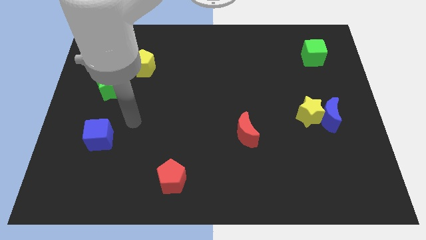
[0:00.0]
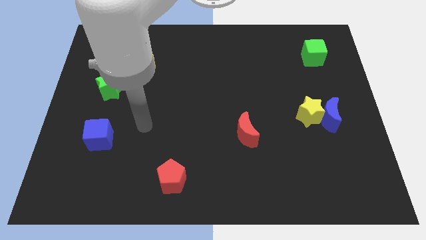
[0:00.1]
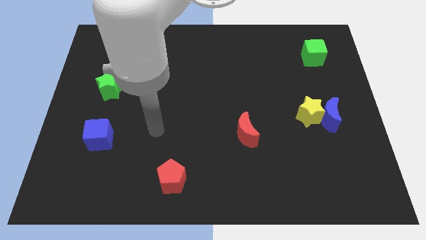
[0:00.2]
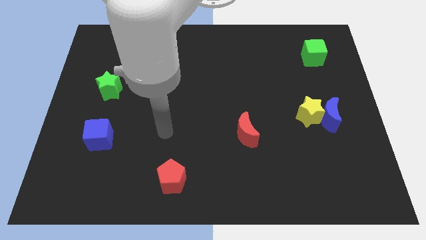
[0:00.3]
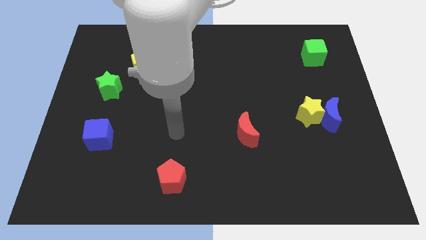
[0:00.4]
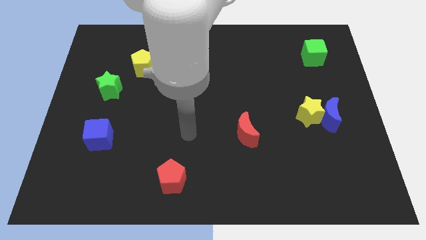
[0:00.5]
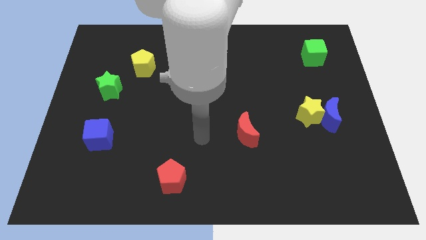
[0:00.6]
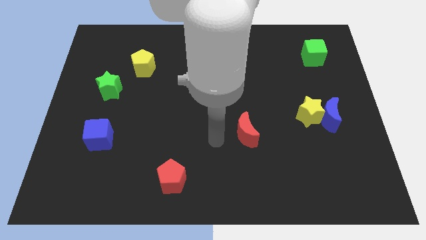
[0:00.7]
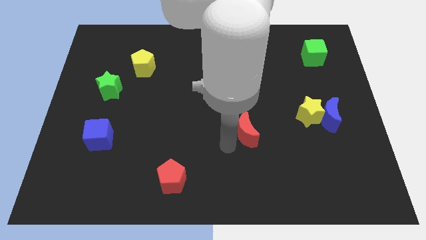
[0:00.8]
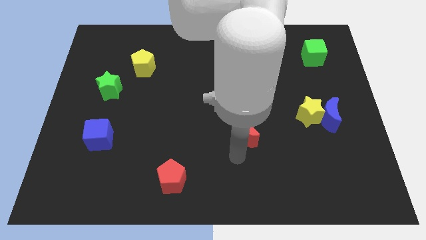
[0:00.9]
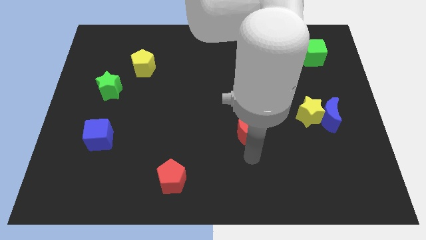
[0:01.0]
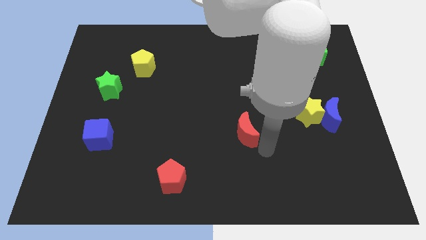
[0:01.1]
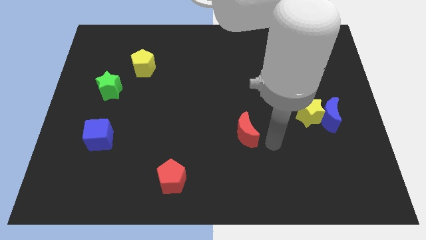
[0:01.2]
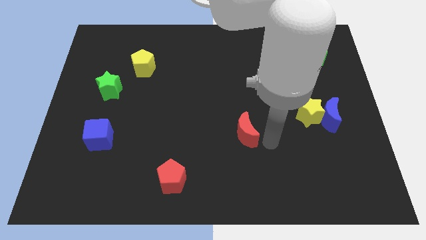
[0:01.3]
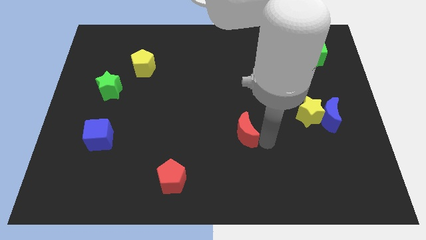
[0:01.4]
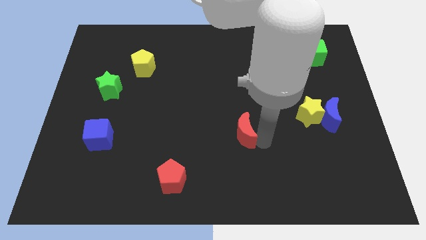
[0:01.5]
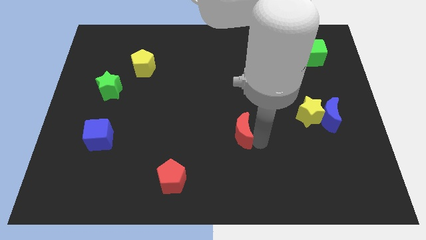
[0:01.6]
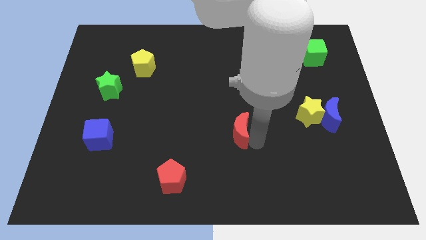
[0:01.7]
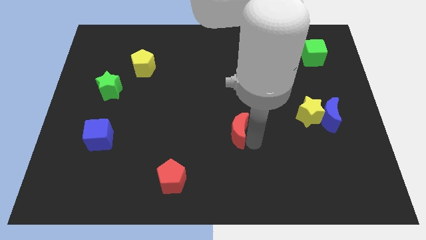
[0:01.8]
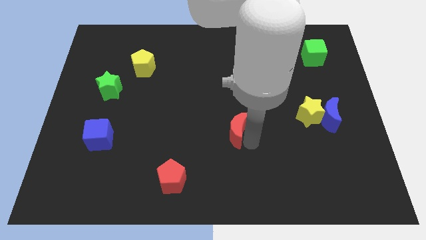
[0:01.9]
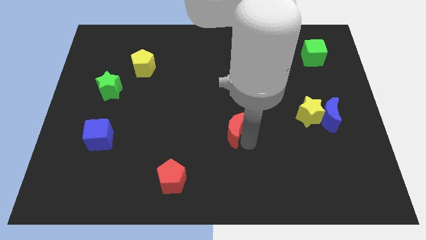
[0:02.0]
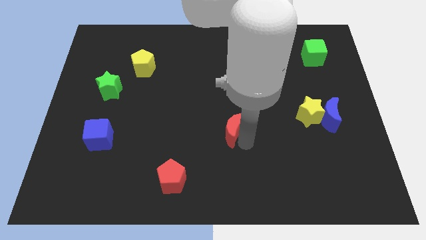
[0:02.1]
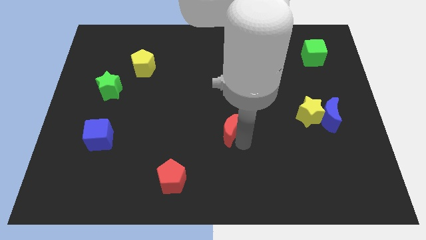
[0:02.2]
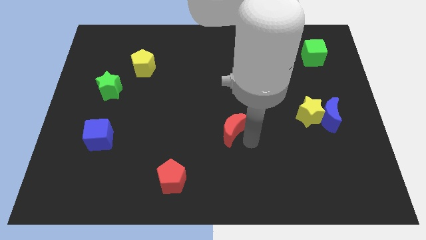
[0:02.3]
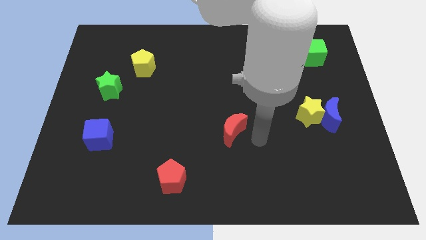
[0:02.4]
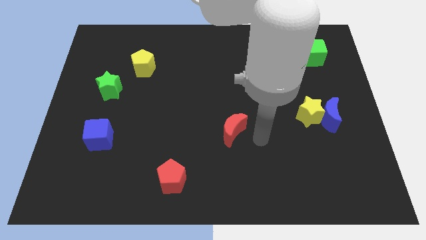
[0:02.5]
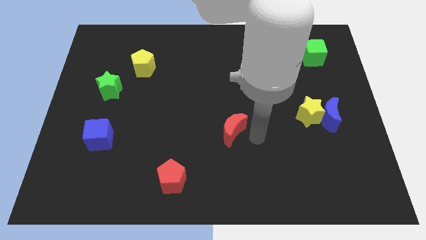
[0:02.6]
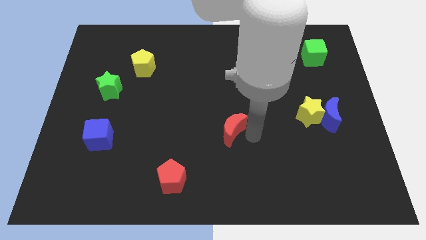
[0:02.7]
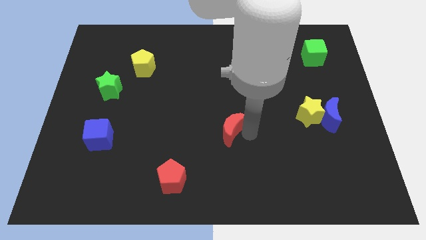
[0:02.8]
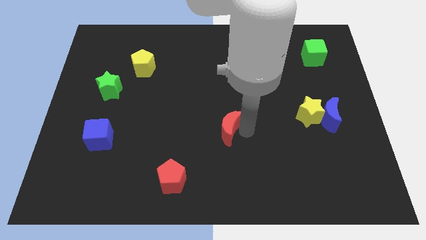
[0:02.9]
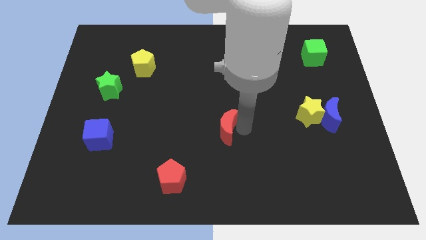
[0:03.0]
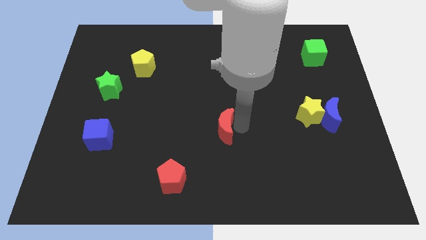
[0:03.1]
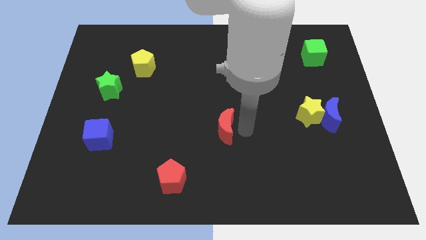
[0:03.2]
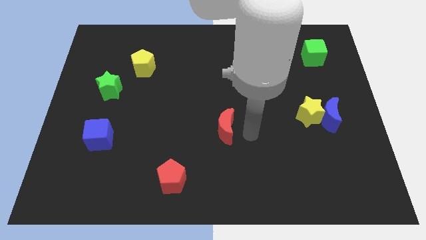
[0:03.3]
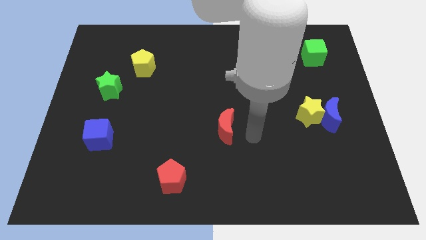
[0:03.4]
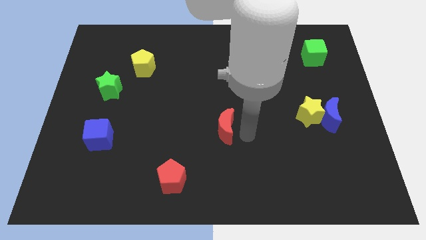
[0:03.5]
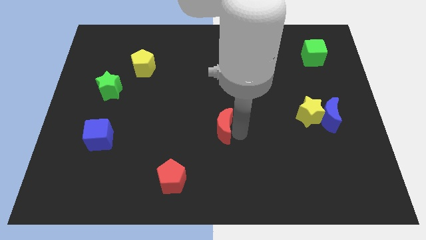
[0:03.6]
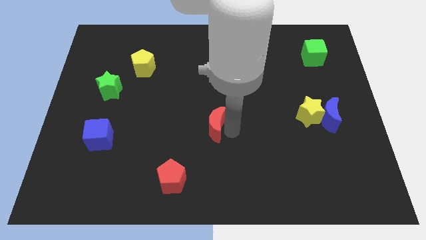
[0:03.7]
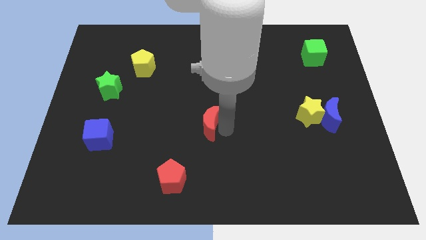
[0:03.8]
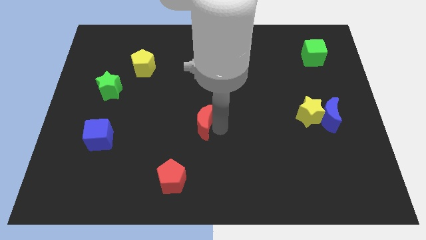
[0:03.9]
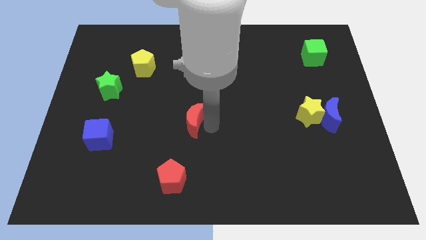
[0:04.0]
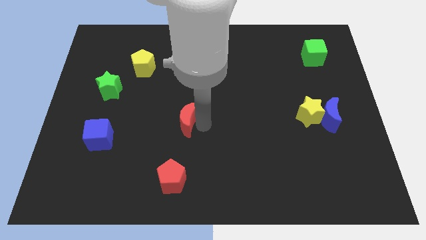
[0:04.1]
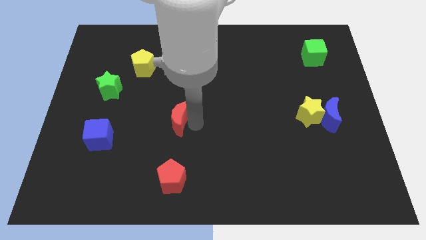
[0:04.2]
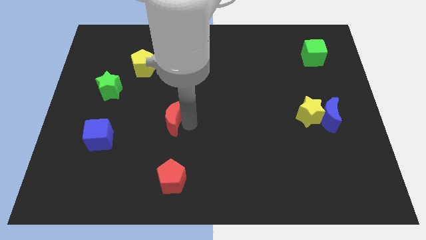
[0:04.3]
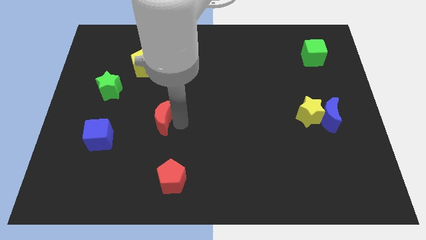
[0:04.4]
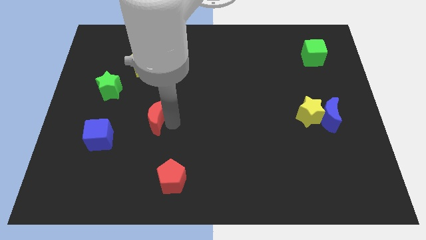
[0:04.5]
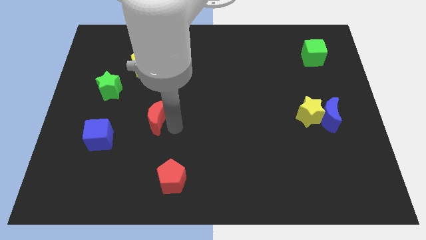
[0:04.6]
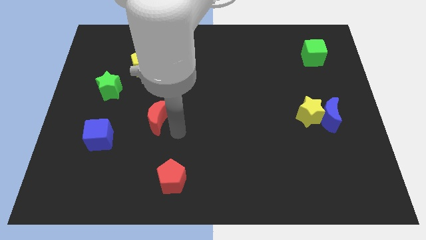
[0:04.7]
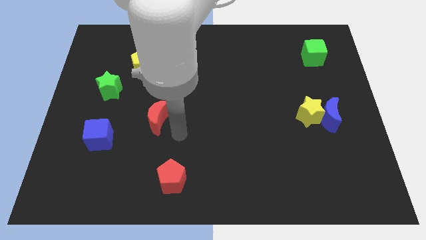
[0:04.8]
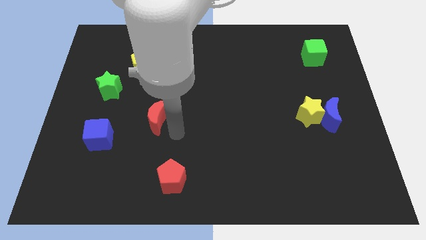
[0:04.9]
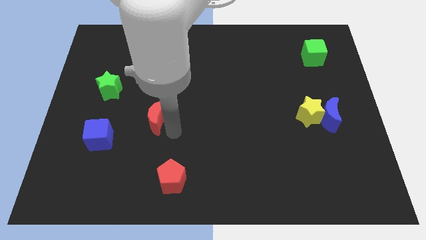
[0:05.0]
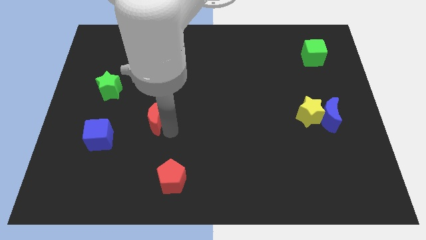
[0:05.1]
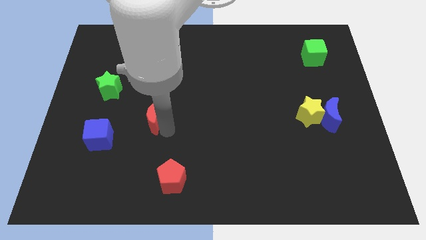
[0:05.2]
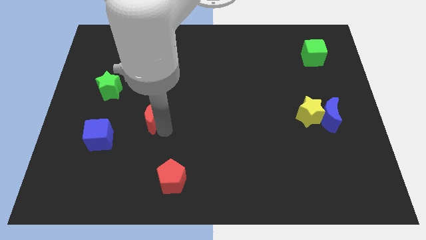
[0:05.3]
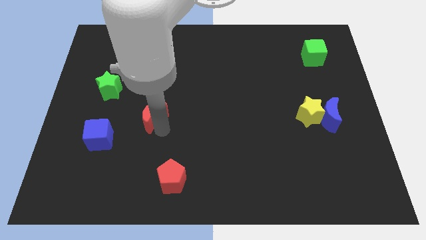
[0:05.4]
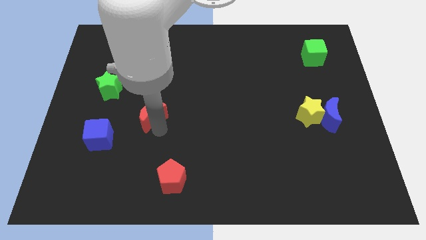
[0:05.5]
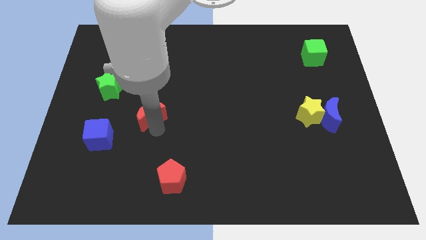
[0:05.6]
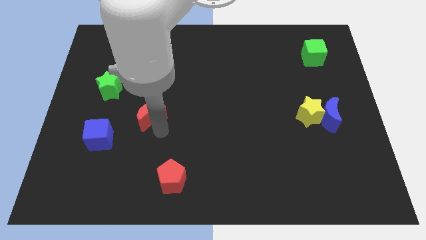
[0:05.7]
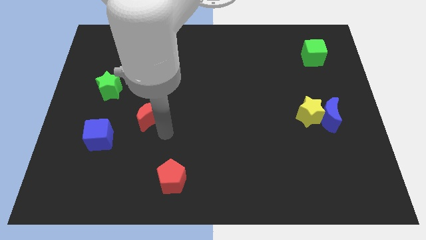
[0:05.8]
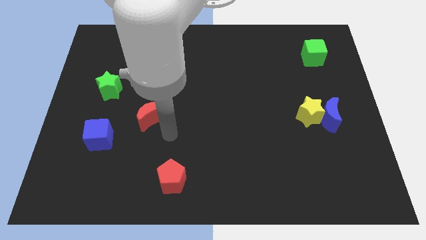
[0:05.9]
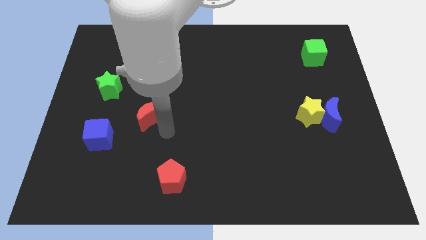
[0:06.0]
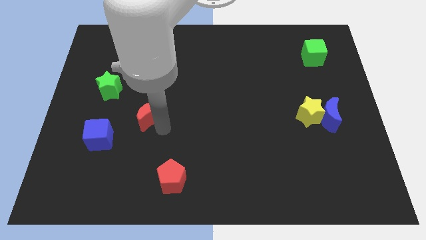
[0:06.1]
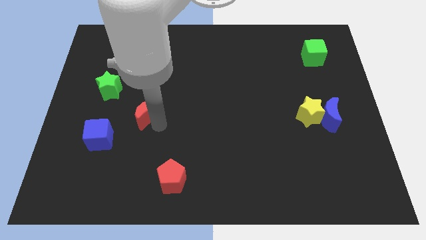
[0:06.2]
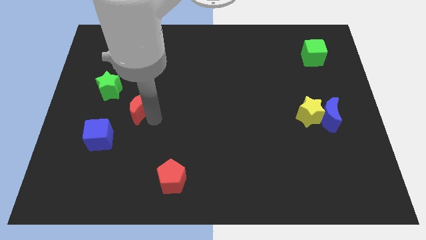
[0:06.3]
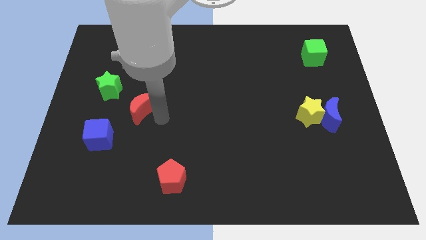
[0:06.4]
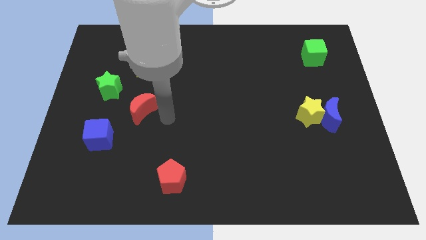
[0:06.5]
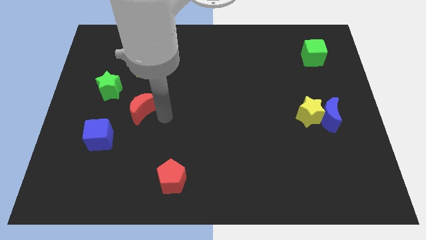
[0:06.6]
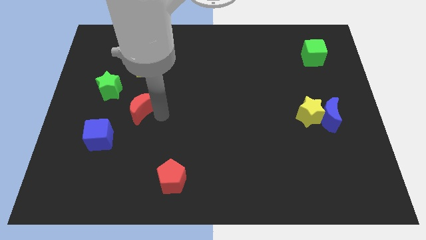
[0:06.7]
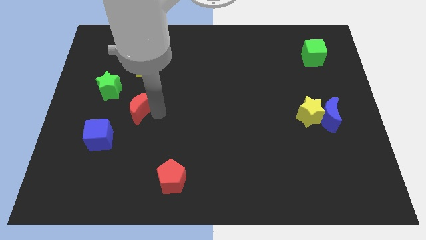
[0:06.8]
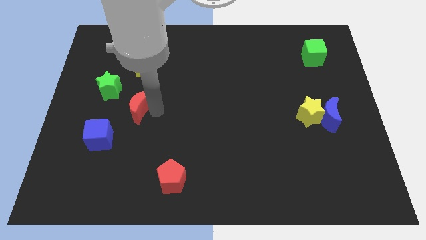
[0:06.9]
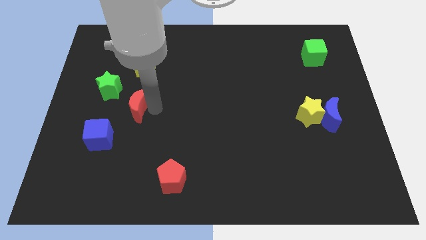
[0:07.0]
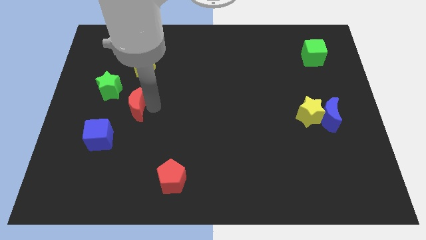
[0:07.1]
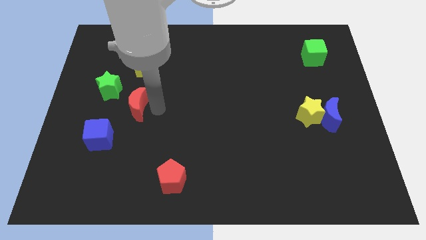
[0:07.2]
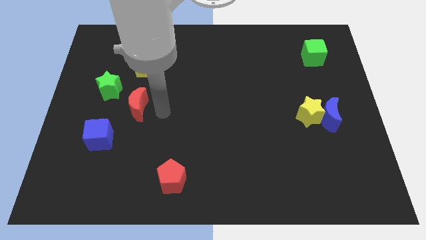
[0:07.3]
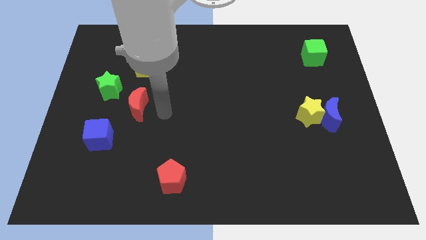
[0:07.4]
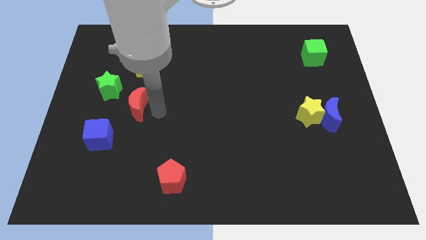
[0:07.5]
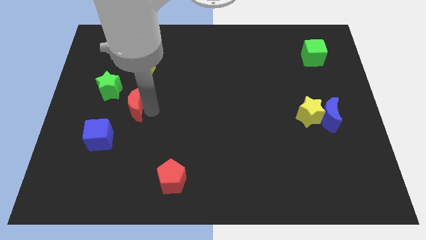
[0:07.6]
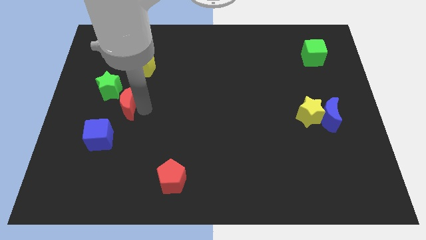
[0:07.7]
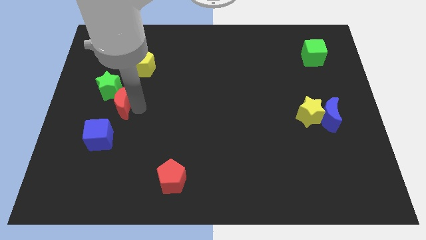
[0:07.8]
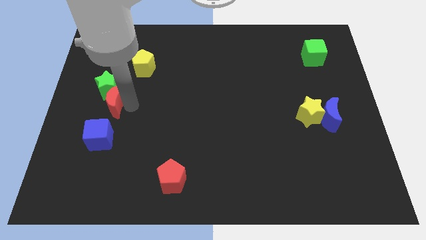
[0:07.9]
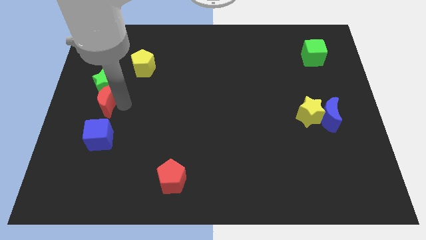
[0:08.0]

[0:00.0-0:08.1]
push the red moon to the left side
